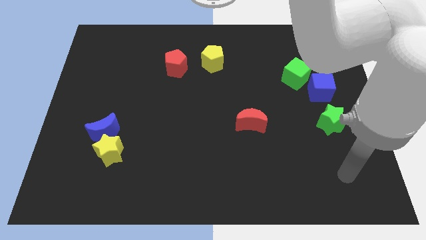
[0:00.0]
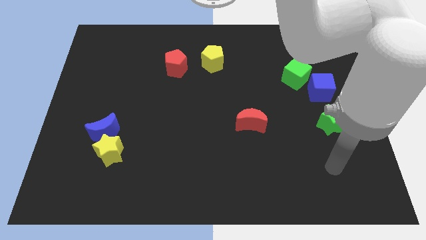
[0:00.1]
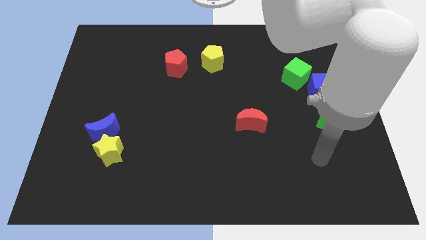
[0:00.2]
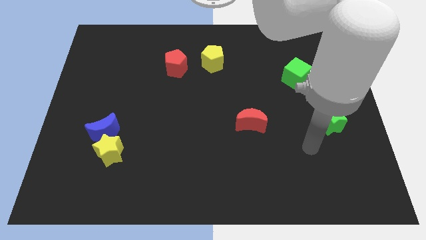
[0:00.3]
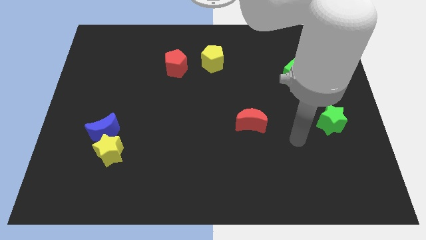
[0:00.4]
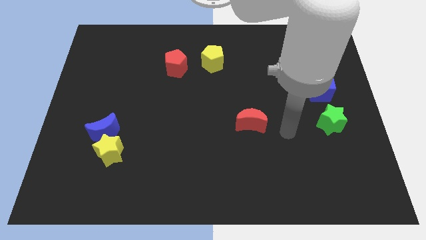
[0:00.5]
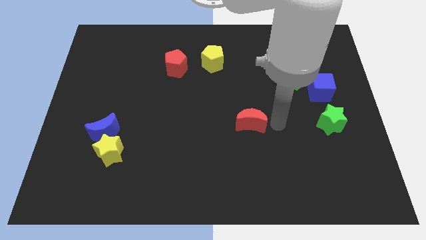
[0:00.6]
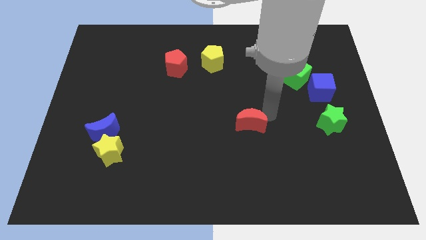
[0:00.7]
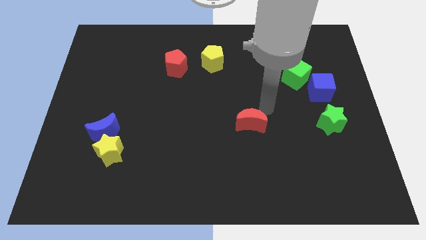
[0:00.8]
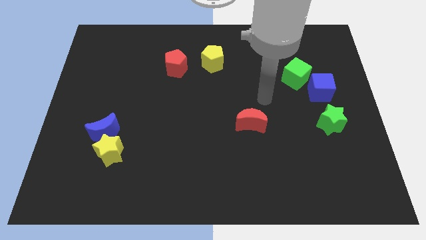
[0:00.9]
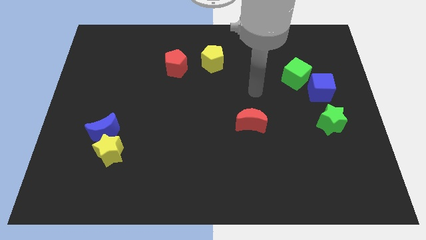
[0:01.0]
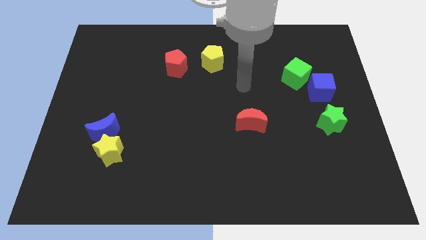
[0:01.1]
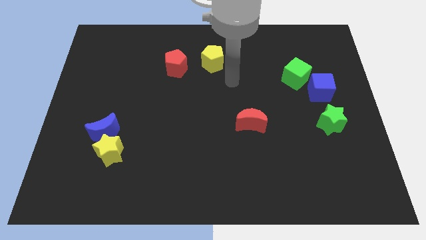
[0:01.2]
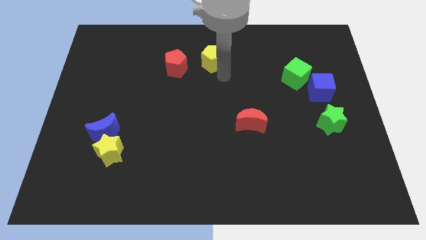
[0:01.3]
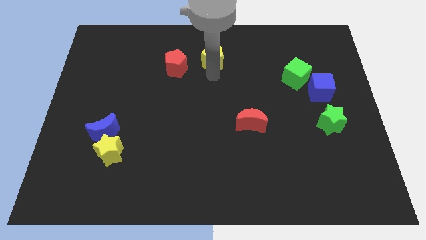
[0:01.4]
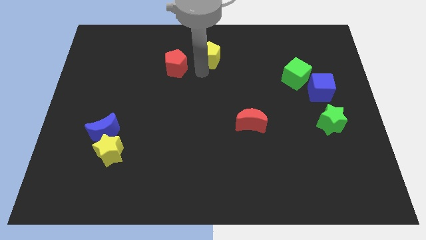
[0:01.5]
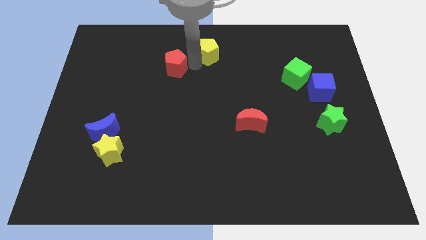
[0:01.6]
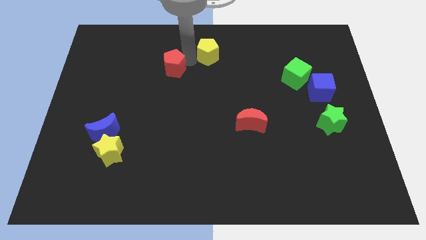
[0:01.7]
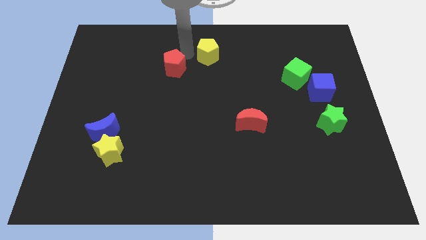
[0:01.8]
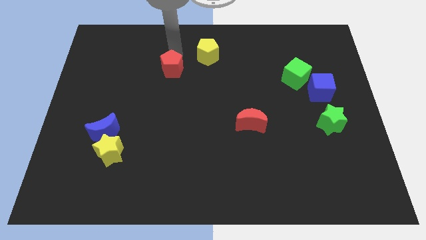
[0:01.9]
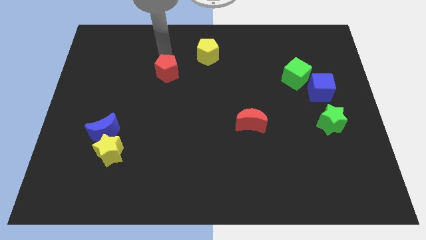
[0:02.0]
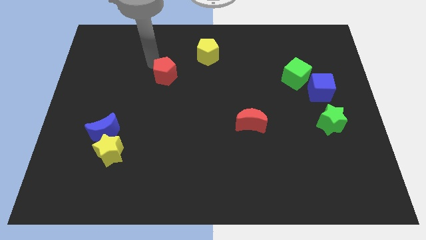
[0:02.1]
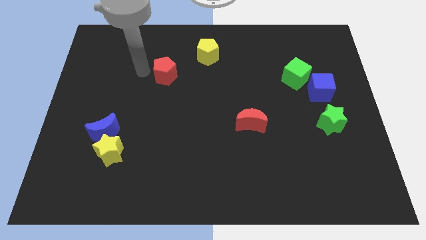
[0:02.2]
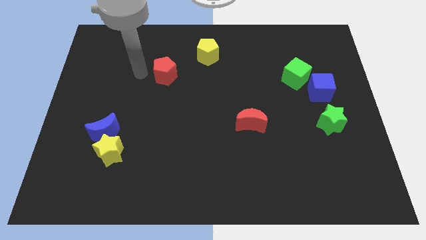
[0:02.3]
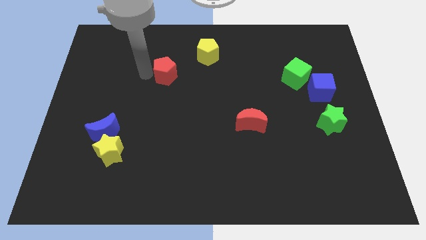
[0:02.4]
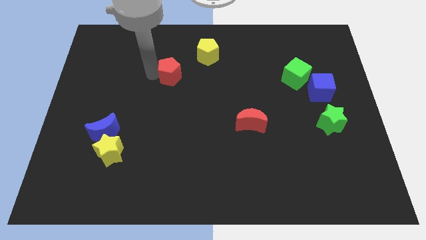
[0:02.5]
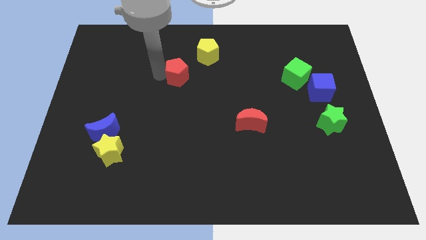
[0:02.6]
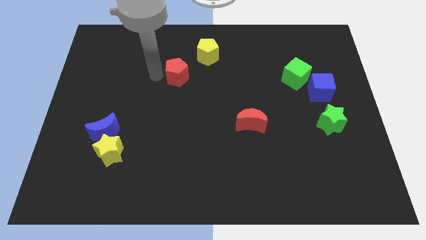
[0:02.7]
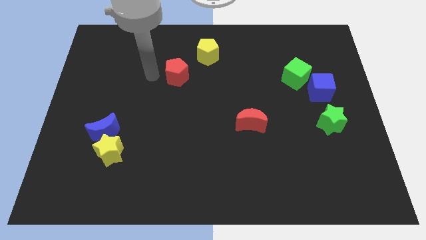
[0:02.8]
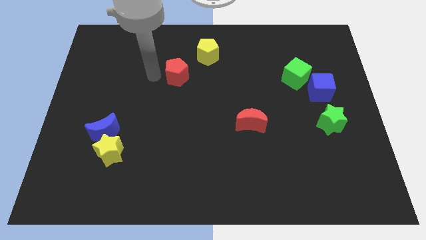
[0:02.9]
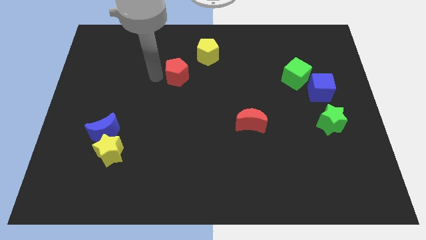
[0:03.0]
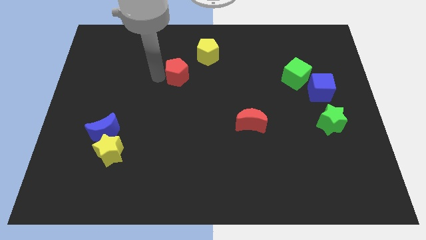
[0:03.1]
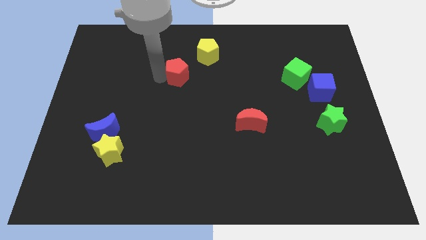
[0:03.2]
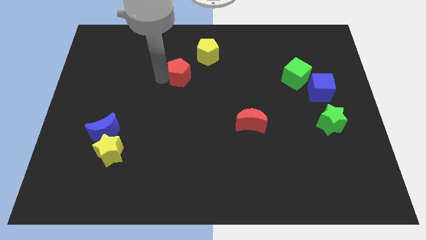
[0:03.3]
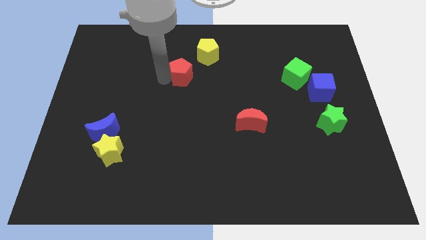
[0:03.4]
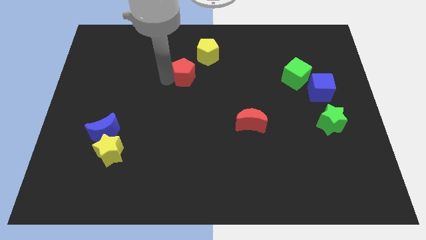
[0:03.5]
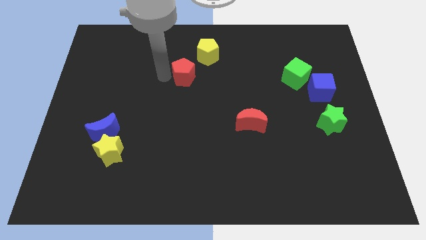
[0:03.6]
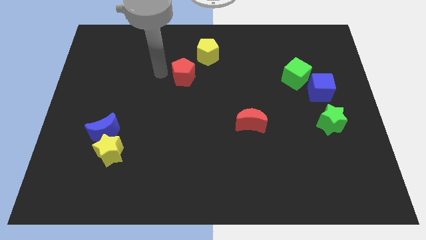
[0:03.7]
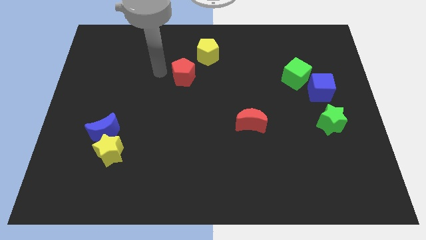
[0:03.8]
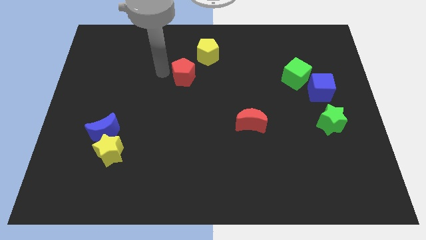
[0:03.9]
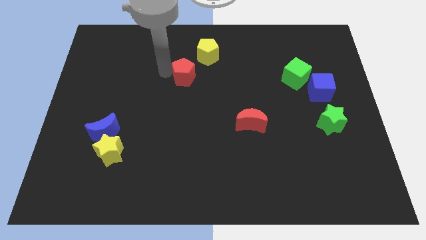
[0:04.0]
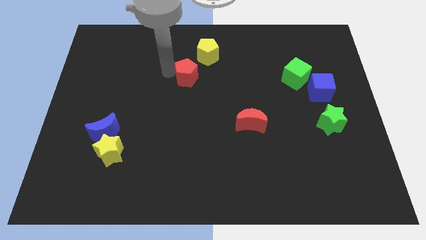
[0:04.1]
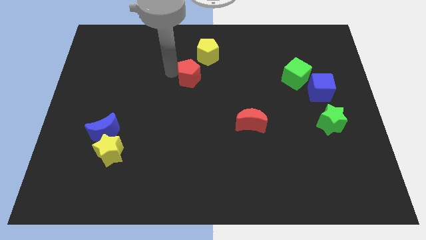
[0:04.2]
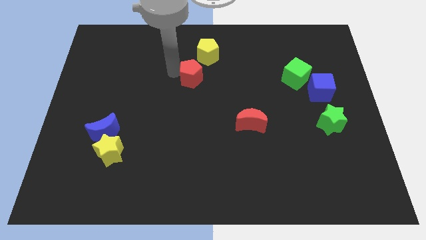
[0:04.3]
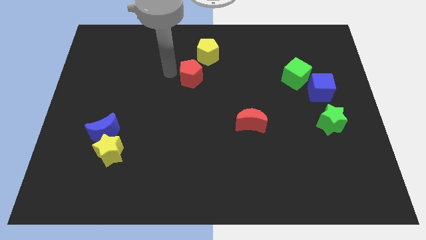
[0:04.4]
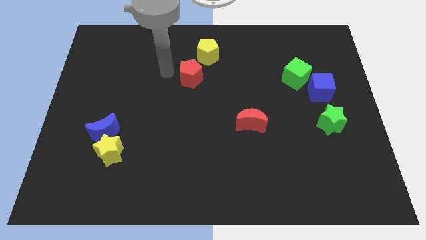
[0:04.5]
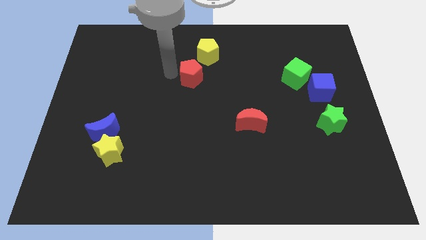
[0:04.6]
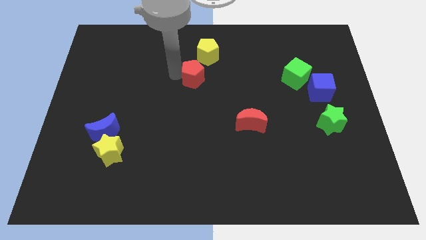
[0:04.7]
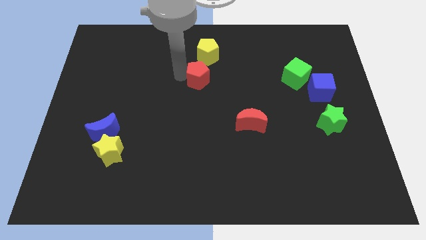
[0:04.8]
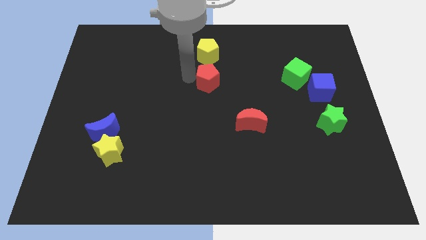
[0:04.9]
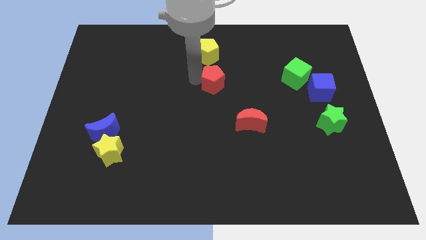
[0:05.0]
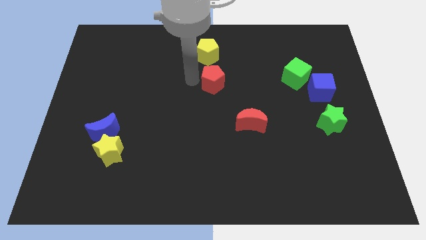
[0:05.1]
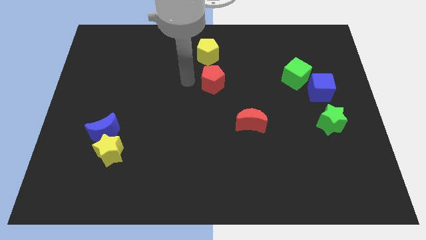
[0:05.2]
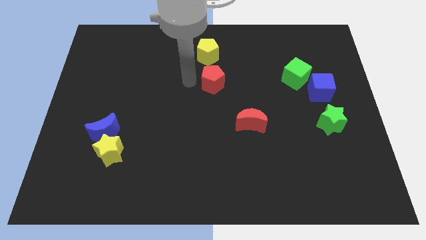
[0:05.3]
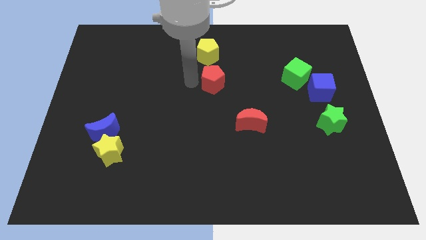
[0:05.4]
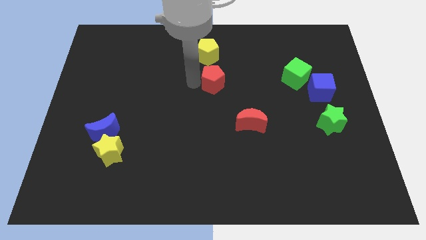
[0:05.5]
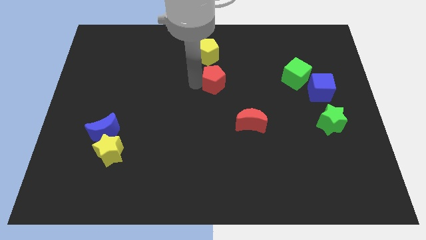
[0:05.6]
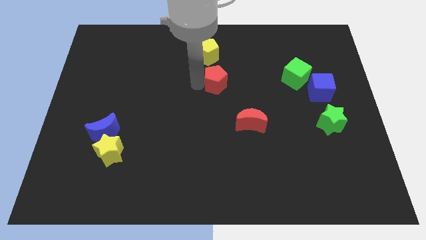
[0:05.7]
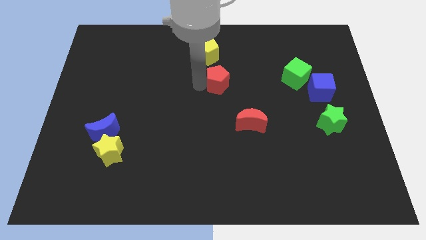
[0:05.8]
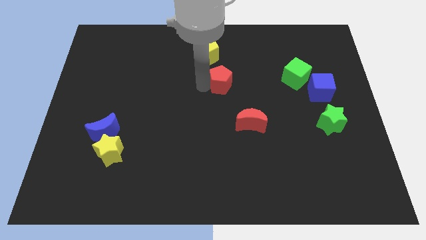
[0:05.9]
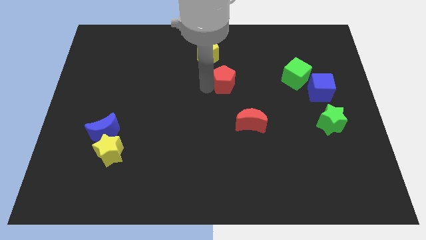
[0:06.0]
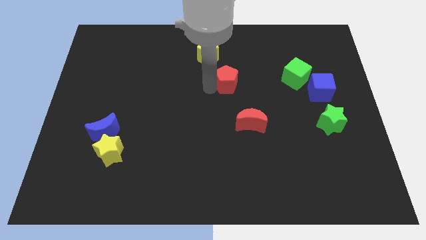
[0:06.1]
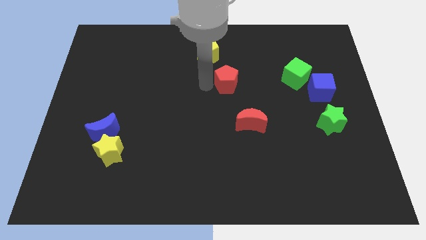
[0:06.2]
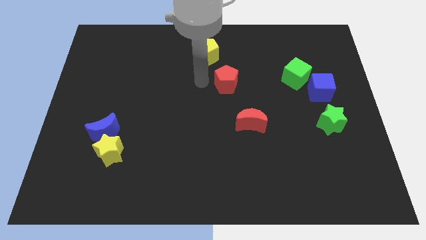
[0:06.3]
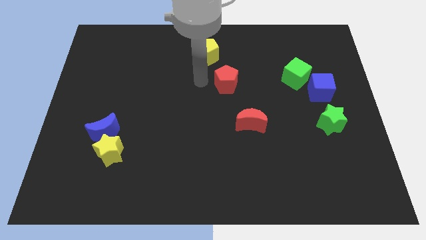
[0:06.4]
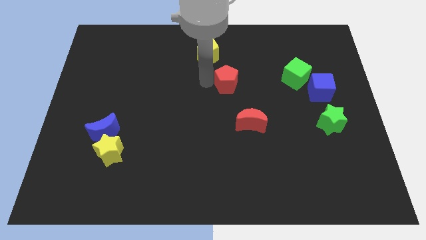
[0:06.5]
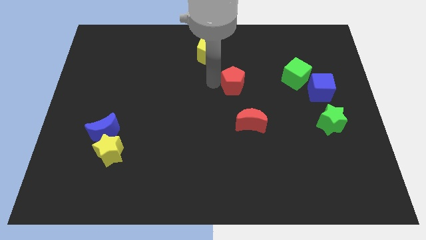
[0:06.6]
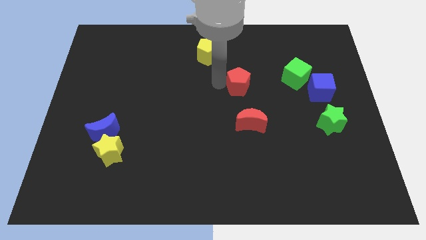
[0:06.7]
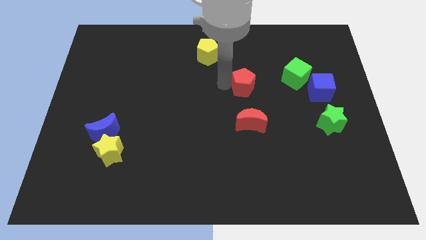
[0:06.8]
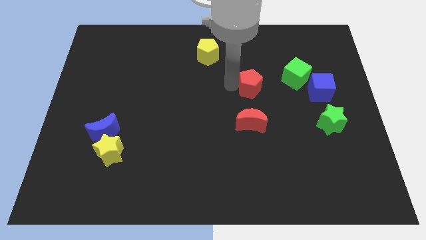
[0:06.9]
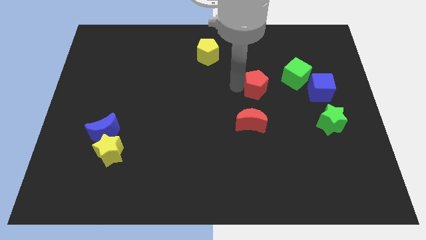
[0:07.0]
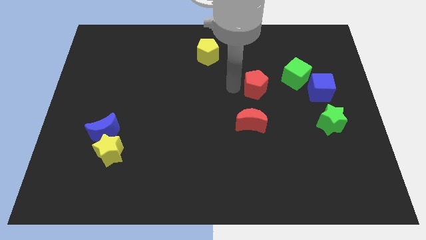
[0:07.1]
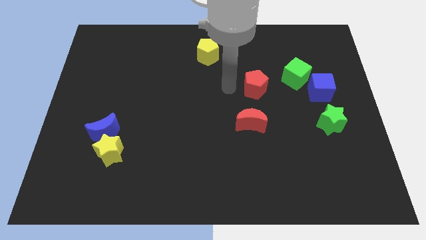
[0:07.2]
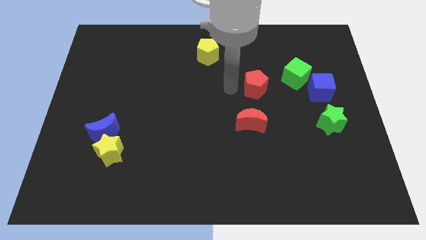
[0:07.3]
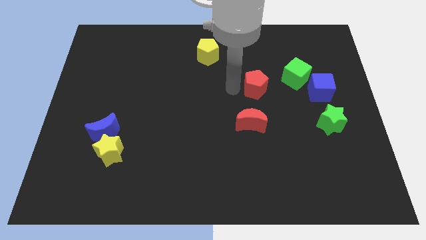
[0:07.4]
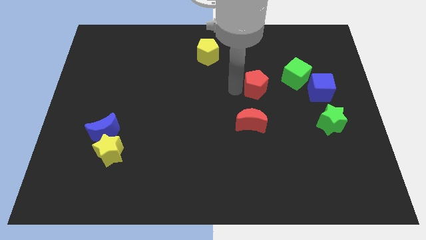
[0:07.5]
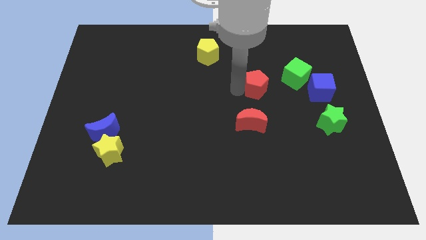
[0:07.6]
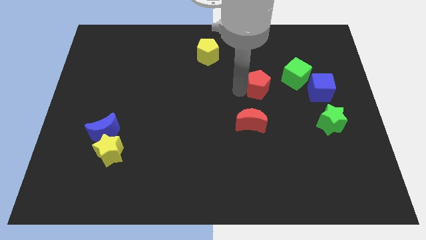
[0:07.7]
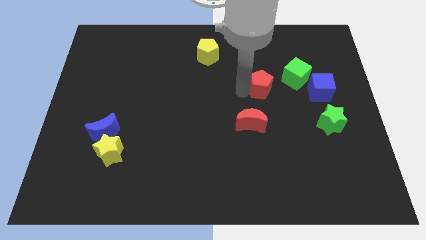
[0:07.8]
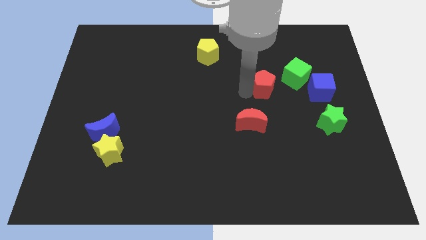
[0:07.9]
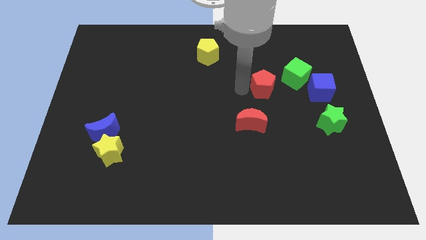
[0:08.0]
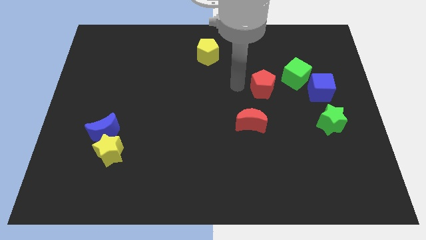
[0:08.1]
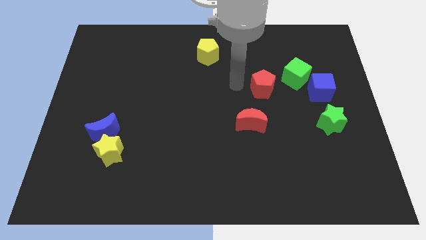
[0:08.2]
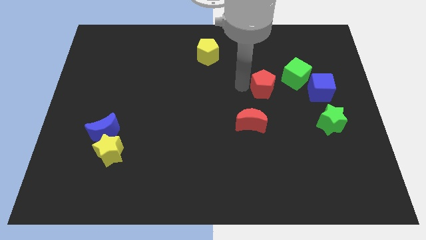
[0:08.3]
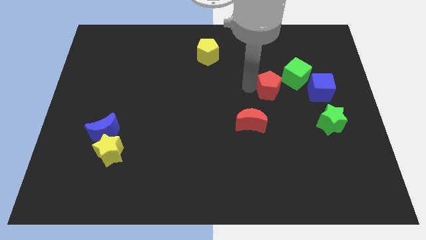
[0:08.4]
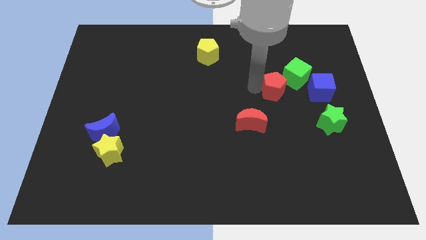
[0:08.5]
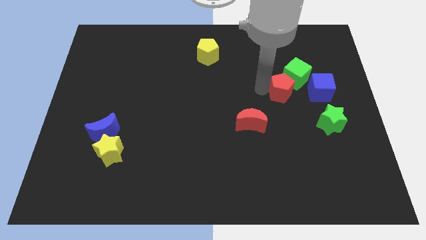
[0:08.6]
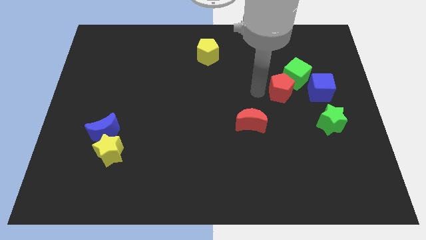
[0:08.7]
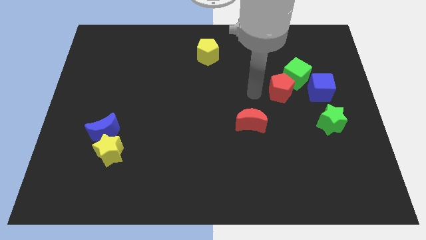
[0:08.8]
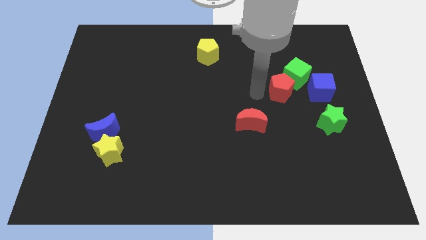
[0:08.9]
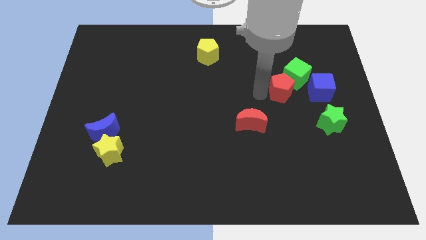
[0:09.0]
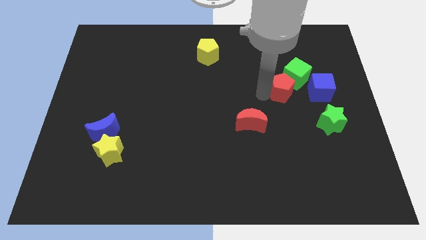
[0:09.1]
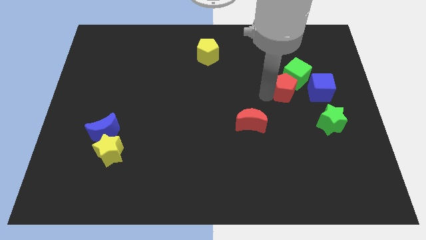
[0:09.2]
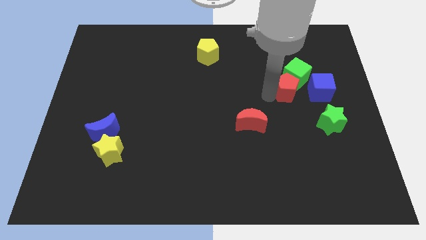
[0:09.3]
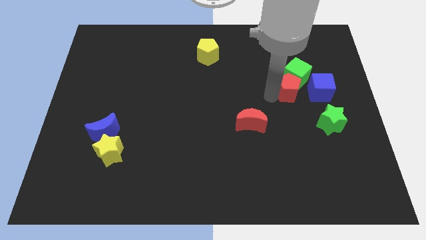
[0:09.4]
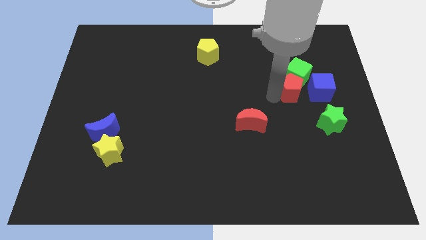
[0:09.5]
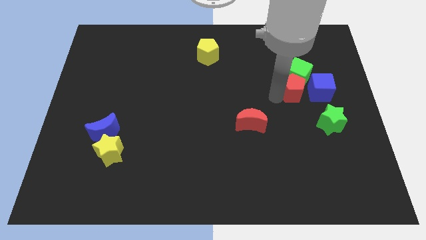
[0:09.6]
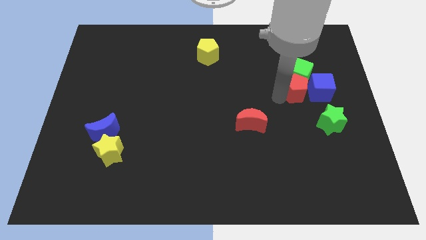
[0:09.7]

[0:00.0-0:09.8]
move the red pentagon towards the blue cube
